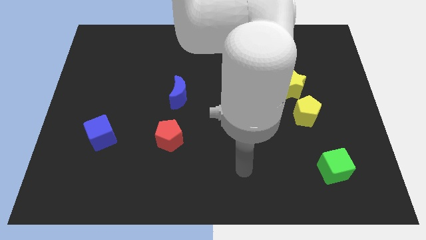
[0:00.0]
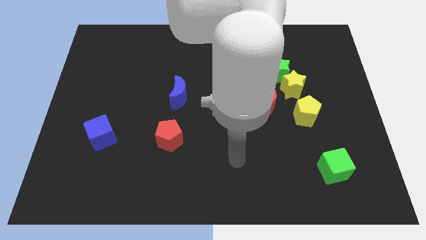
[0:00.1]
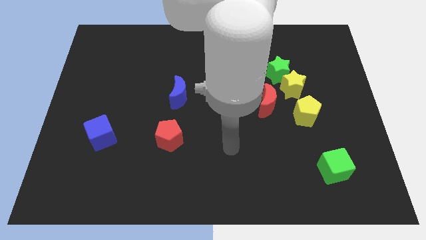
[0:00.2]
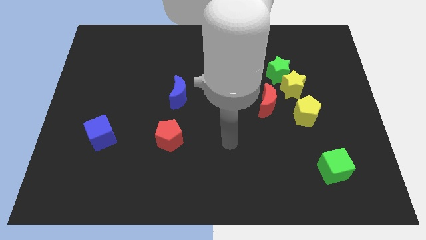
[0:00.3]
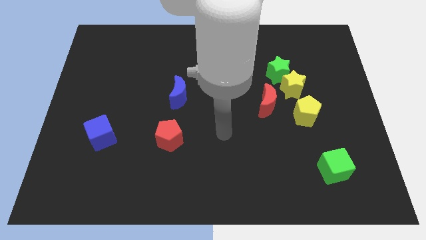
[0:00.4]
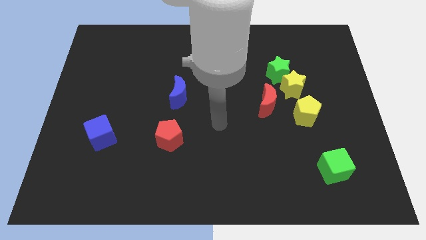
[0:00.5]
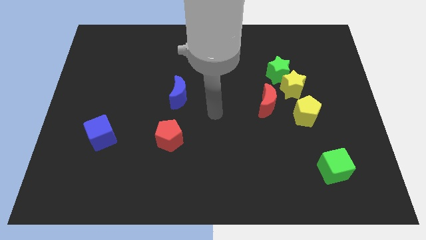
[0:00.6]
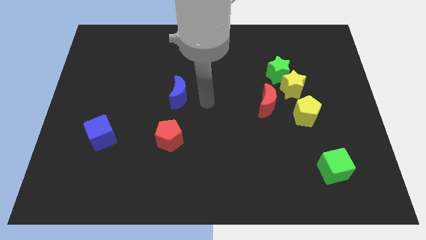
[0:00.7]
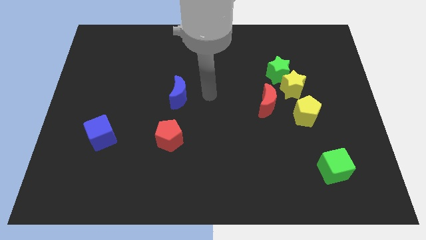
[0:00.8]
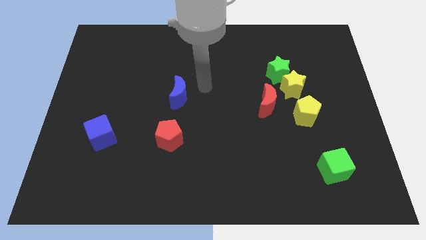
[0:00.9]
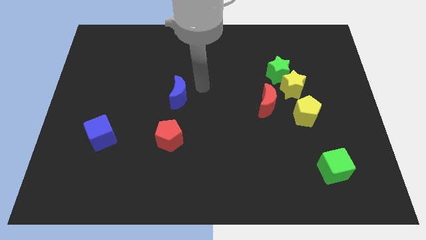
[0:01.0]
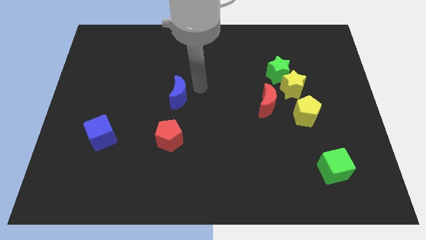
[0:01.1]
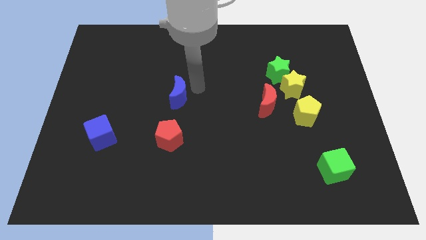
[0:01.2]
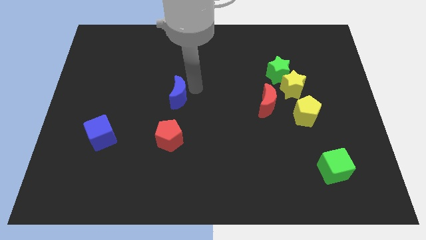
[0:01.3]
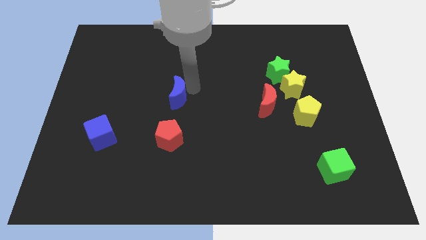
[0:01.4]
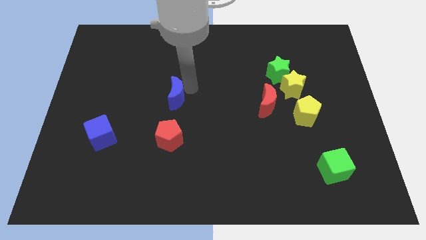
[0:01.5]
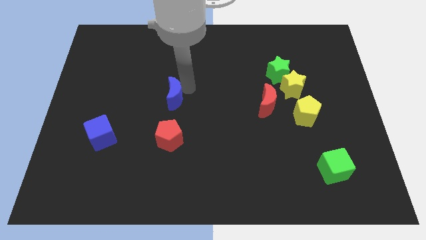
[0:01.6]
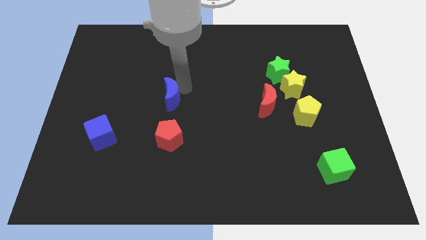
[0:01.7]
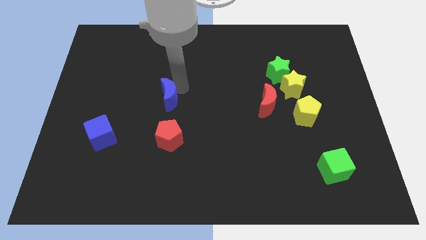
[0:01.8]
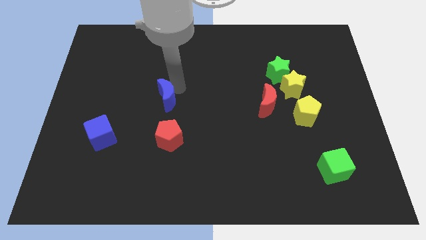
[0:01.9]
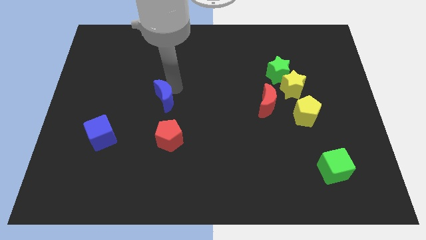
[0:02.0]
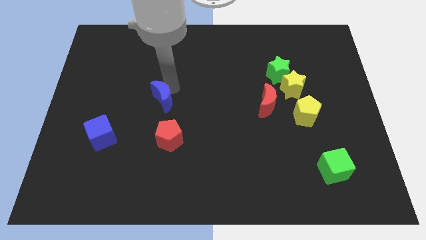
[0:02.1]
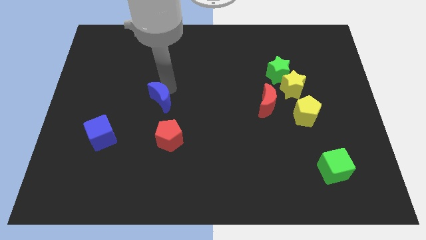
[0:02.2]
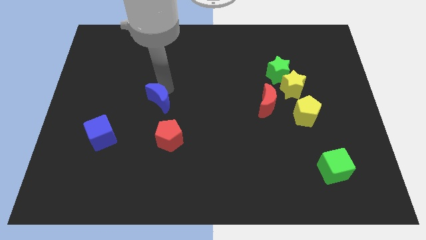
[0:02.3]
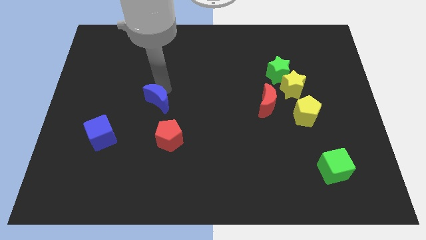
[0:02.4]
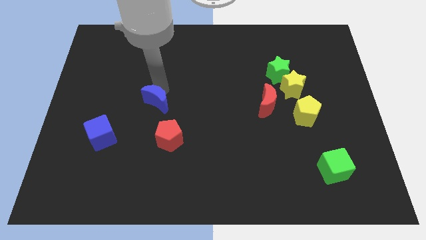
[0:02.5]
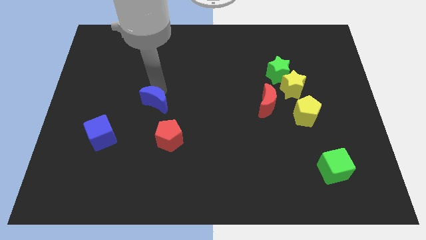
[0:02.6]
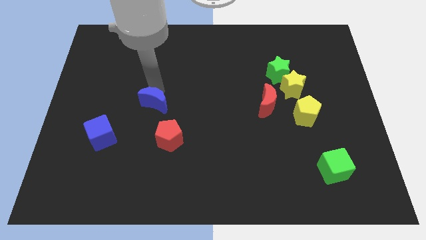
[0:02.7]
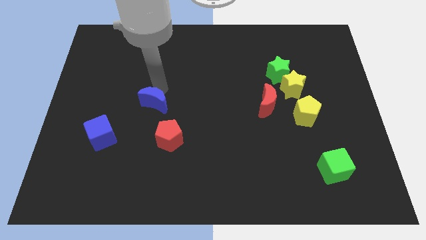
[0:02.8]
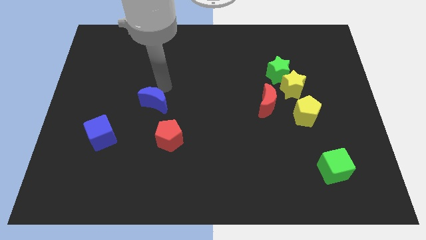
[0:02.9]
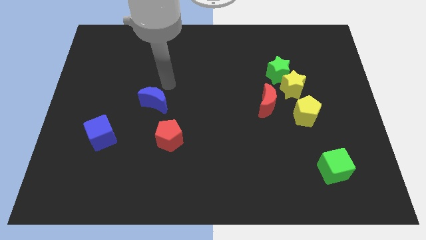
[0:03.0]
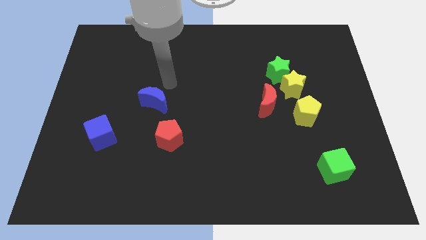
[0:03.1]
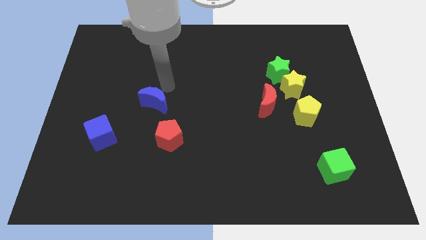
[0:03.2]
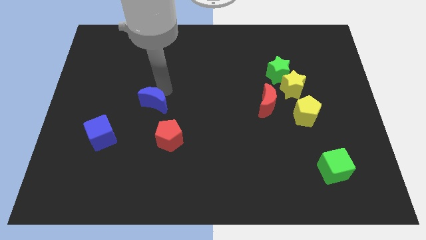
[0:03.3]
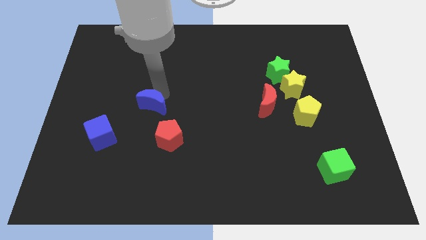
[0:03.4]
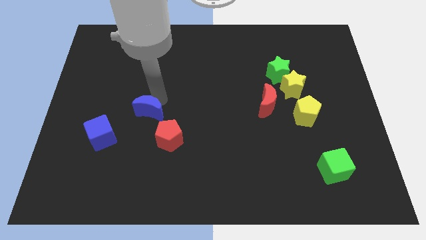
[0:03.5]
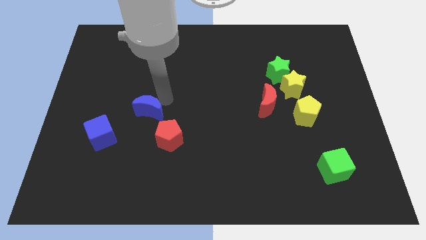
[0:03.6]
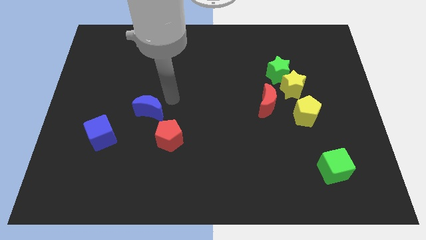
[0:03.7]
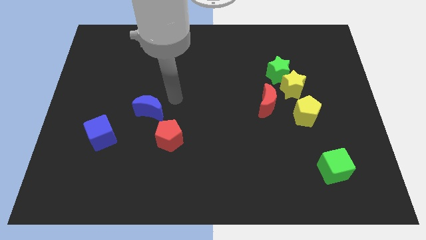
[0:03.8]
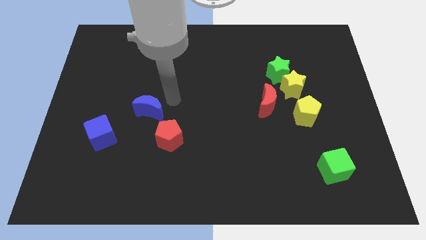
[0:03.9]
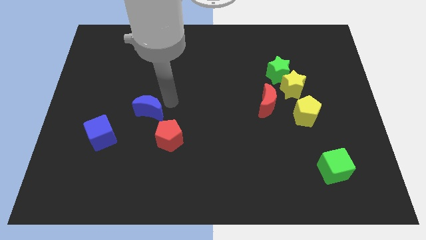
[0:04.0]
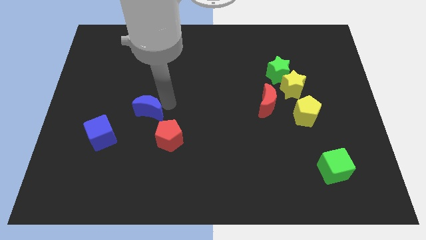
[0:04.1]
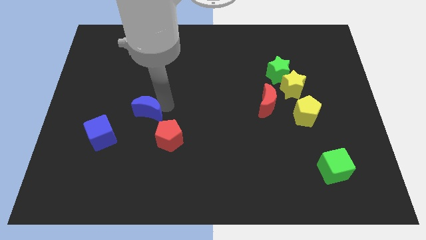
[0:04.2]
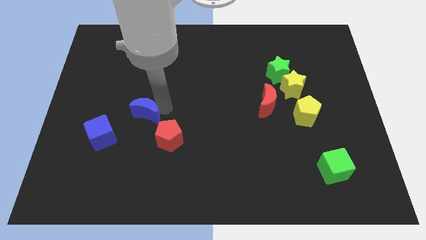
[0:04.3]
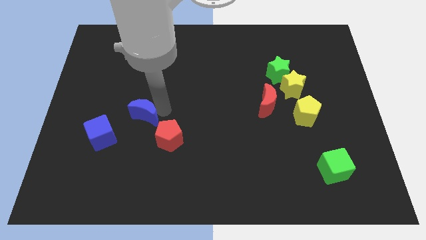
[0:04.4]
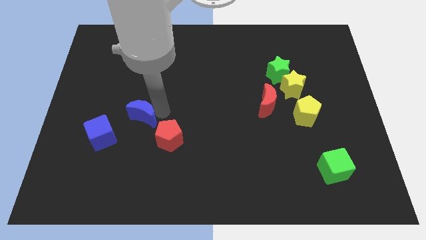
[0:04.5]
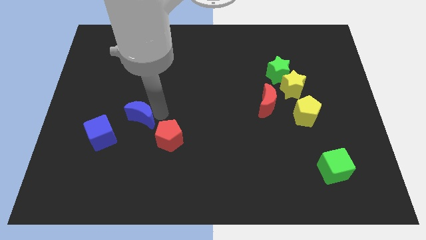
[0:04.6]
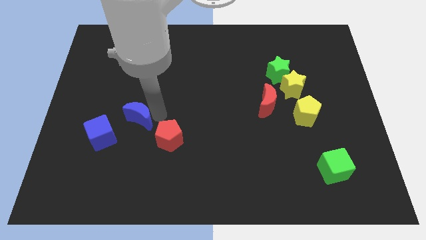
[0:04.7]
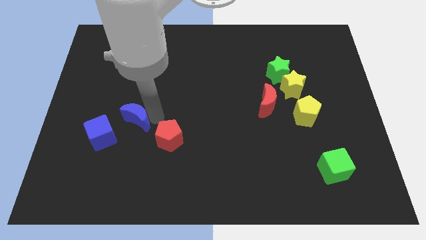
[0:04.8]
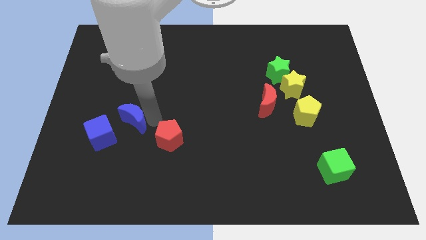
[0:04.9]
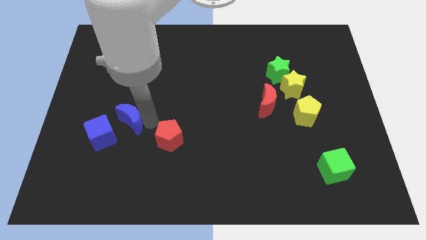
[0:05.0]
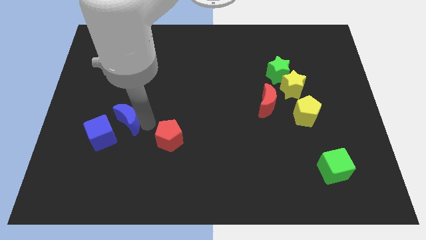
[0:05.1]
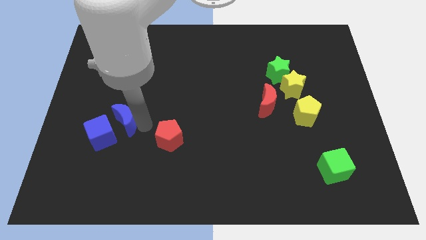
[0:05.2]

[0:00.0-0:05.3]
push the blue moon to the blue cube

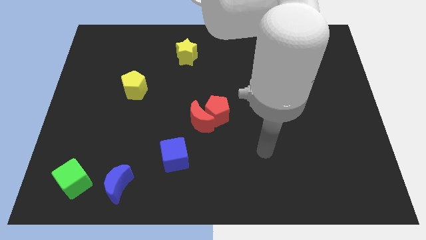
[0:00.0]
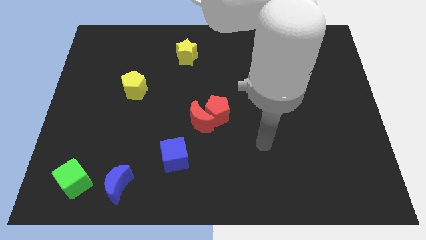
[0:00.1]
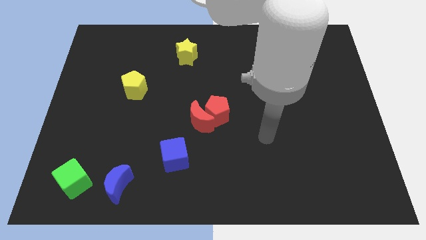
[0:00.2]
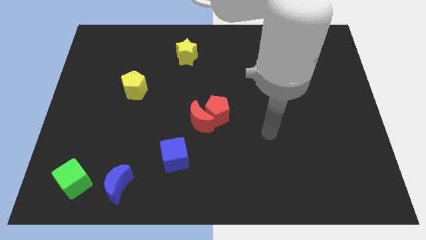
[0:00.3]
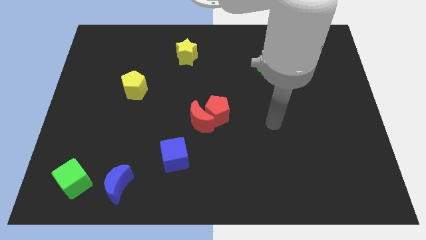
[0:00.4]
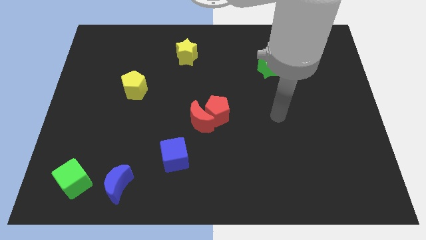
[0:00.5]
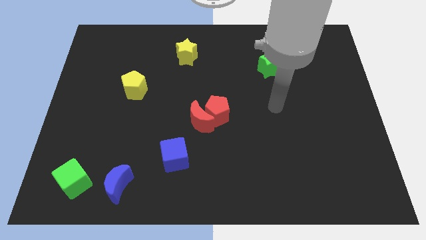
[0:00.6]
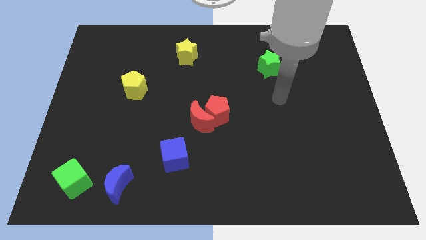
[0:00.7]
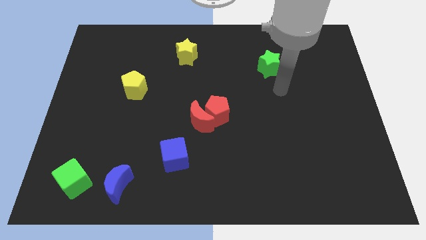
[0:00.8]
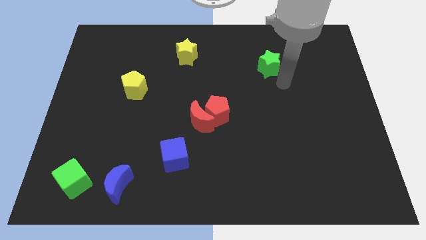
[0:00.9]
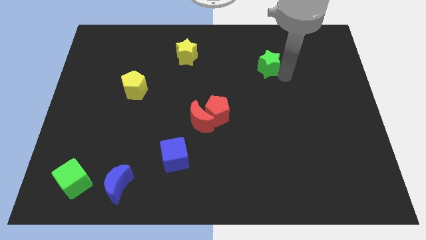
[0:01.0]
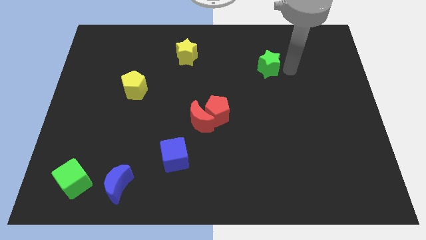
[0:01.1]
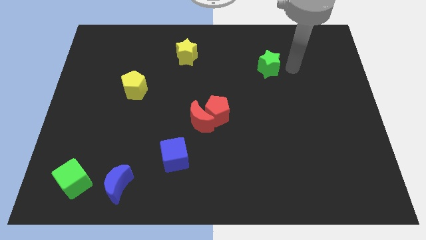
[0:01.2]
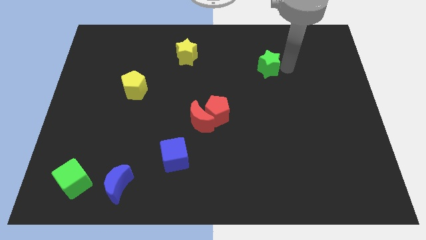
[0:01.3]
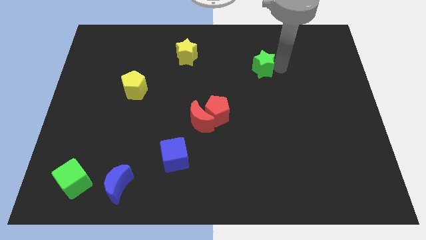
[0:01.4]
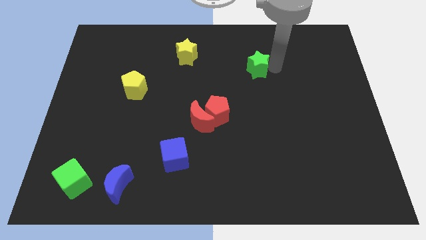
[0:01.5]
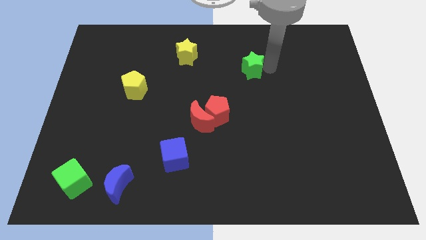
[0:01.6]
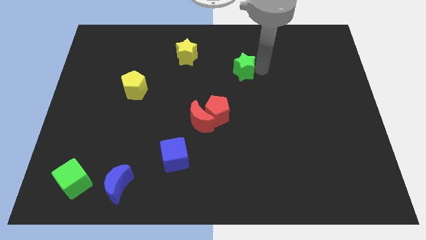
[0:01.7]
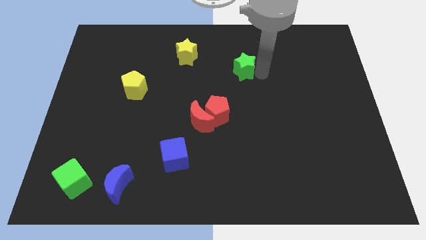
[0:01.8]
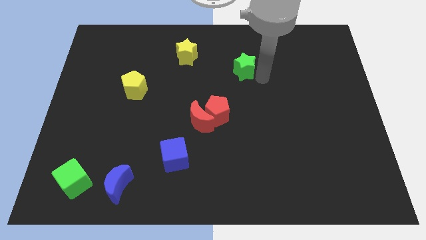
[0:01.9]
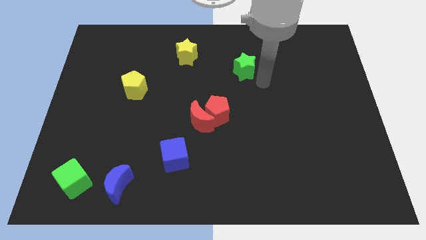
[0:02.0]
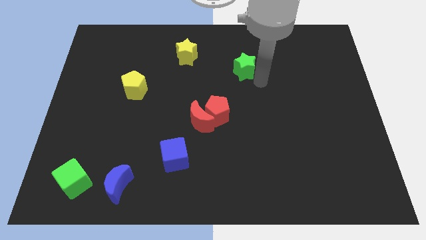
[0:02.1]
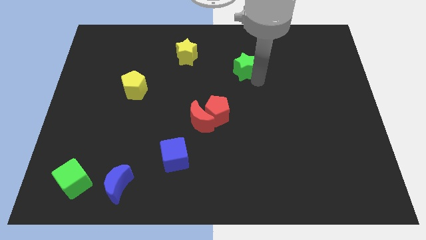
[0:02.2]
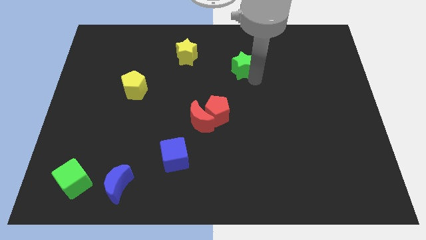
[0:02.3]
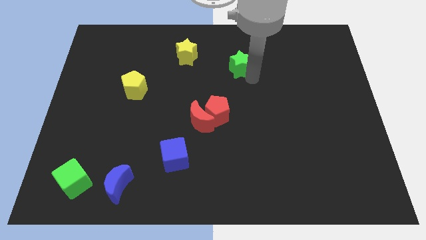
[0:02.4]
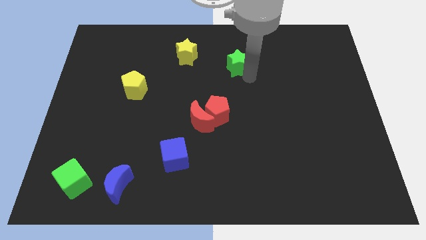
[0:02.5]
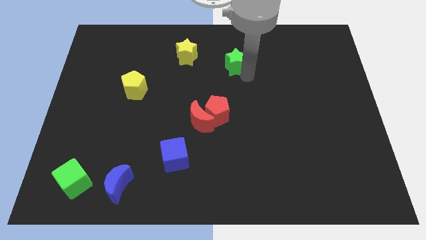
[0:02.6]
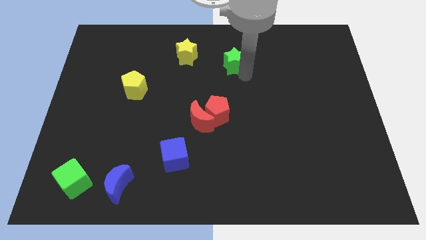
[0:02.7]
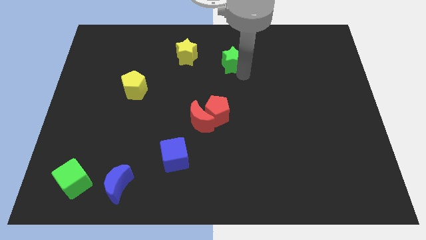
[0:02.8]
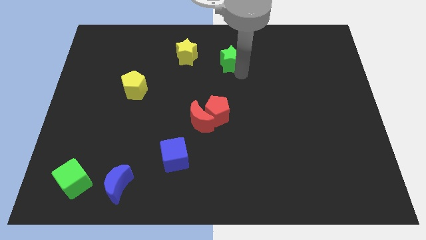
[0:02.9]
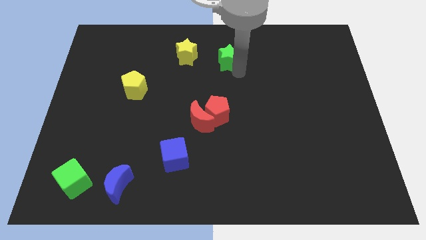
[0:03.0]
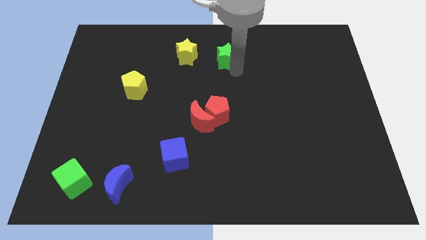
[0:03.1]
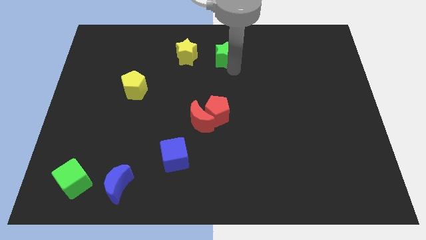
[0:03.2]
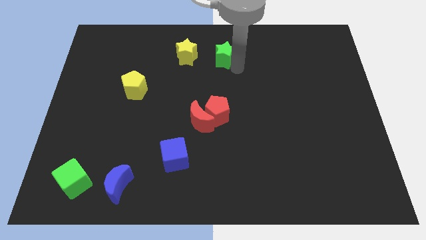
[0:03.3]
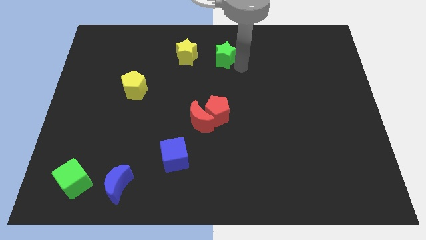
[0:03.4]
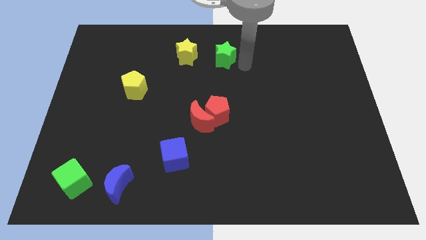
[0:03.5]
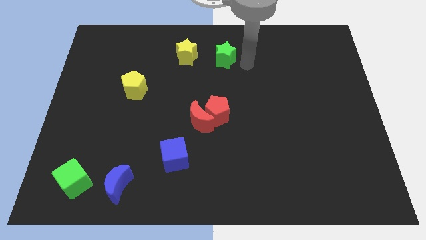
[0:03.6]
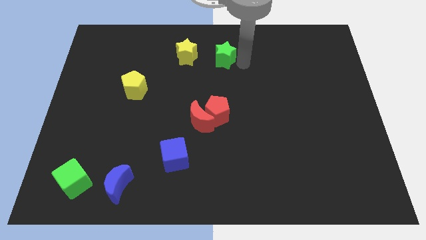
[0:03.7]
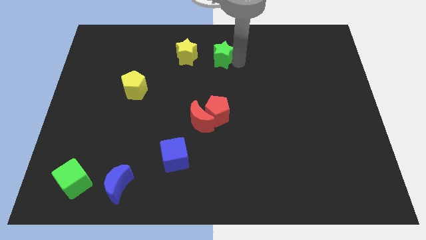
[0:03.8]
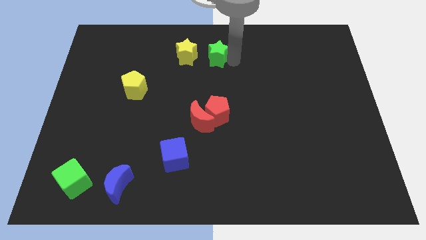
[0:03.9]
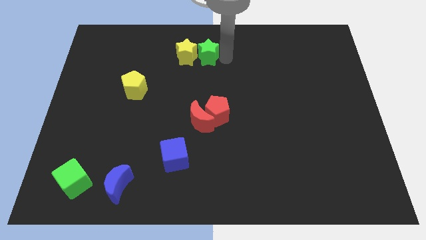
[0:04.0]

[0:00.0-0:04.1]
push the green star close to the yellow star
